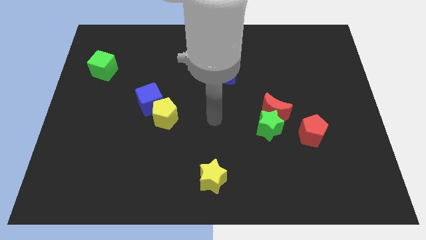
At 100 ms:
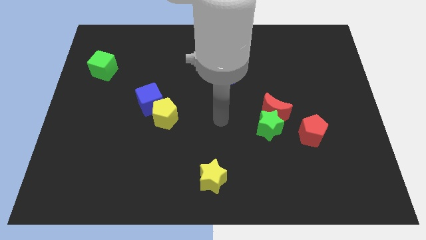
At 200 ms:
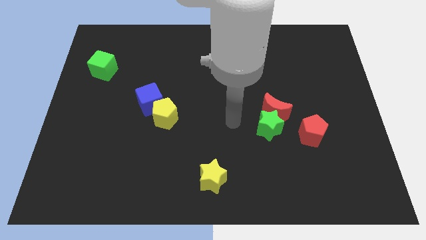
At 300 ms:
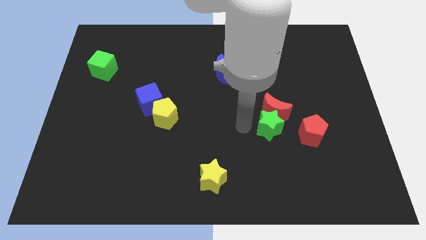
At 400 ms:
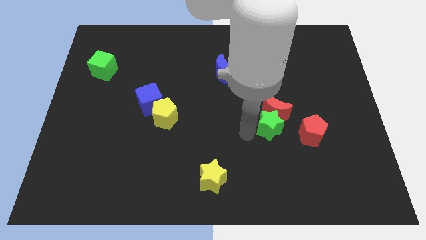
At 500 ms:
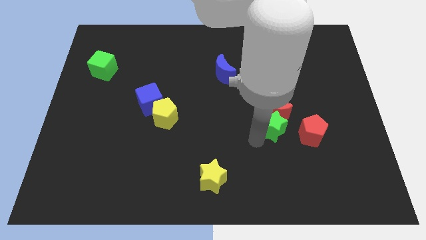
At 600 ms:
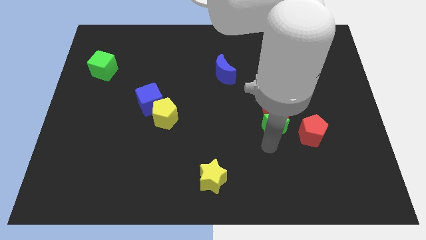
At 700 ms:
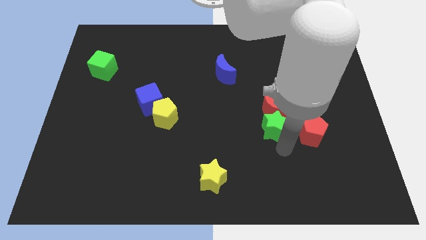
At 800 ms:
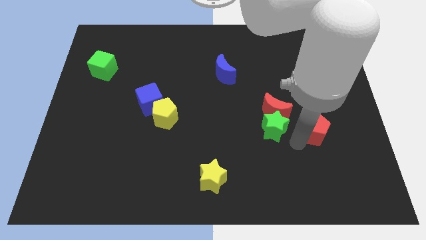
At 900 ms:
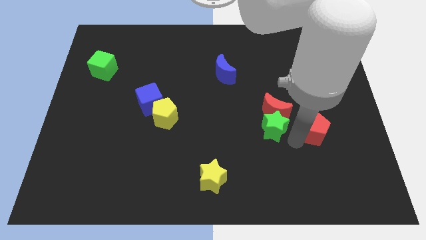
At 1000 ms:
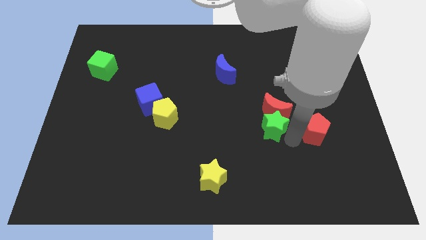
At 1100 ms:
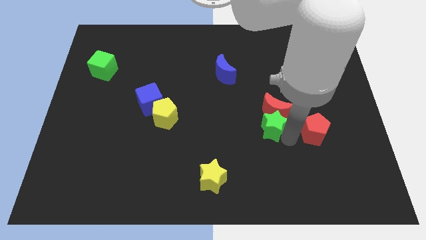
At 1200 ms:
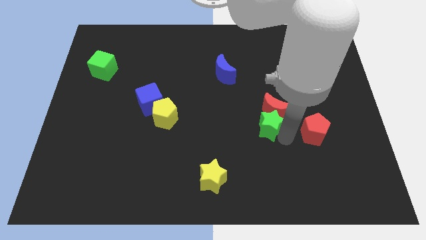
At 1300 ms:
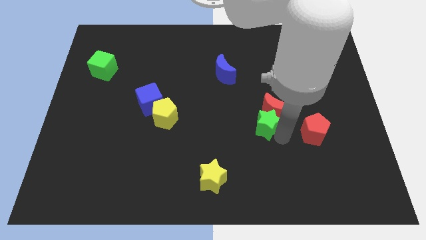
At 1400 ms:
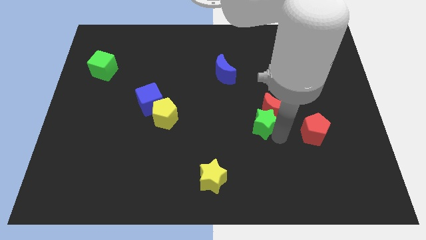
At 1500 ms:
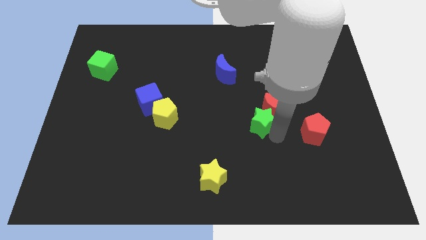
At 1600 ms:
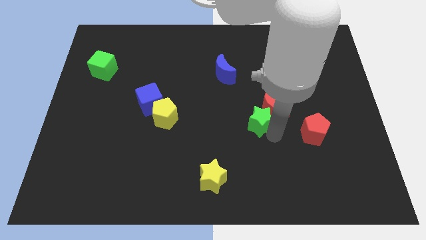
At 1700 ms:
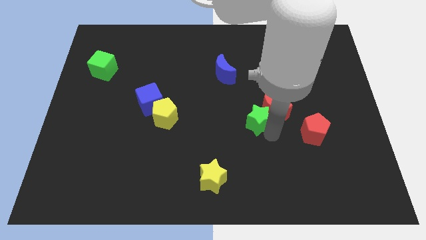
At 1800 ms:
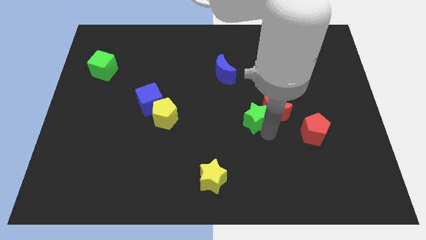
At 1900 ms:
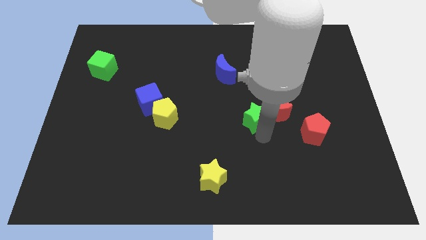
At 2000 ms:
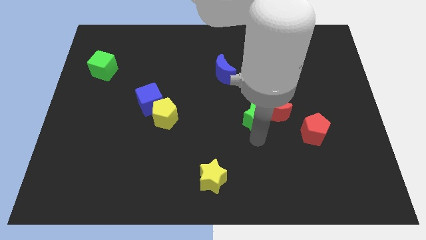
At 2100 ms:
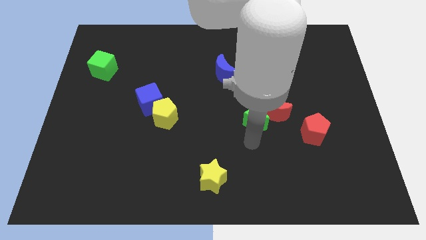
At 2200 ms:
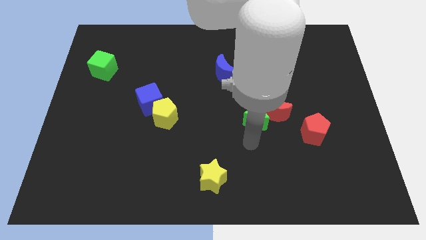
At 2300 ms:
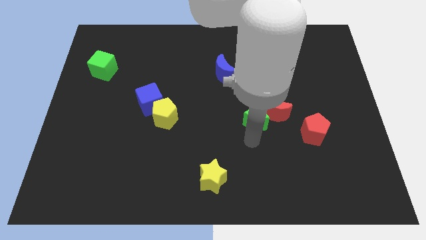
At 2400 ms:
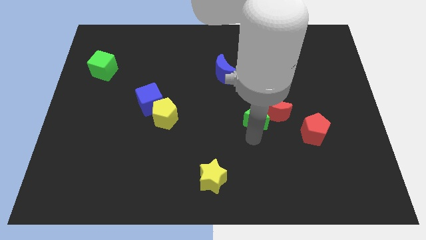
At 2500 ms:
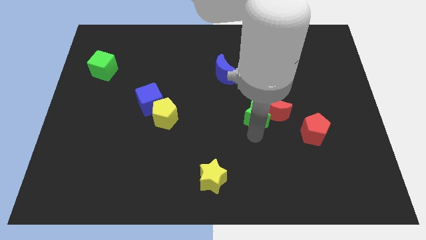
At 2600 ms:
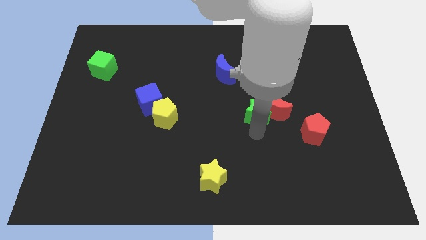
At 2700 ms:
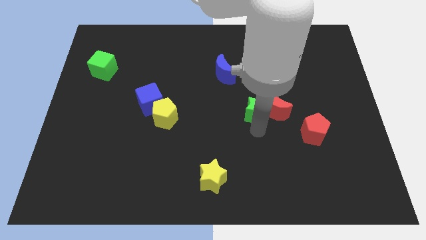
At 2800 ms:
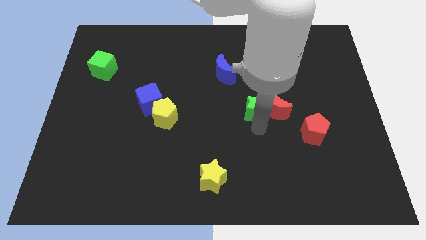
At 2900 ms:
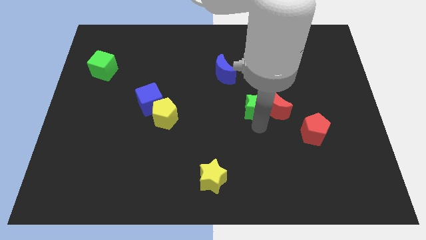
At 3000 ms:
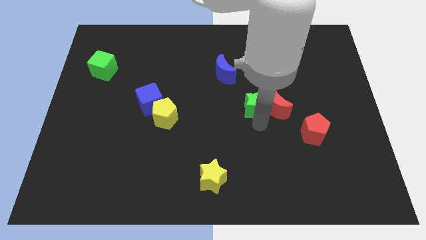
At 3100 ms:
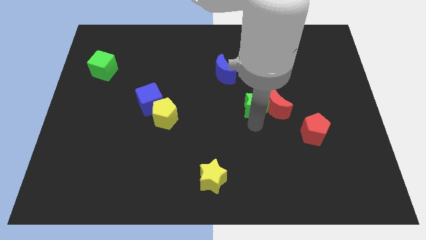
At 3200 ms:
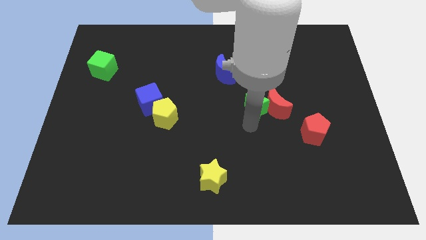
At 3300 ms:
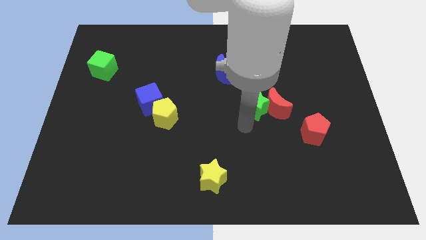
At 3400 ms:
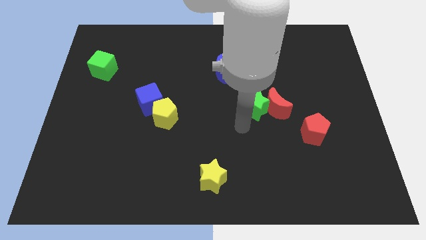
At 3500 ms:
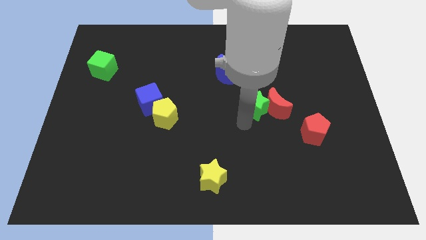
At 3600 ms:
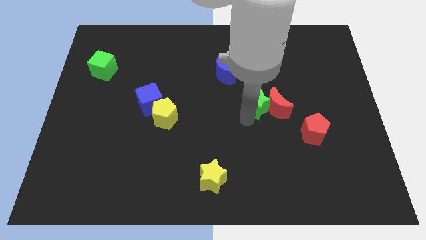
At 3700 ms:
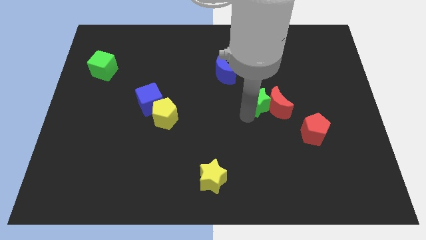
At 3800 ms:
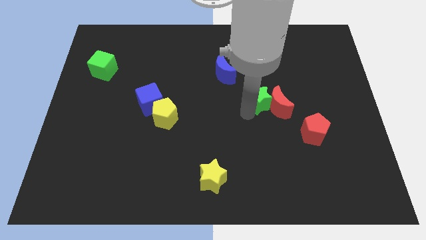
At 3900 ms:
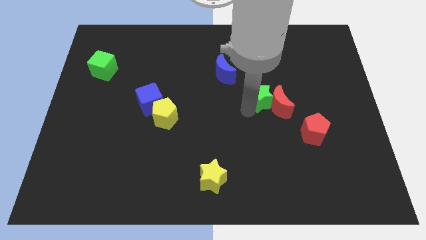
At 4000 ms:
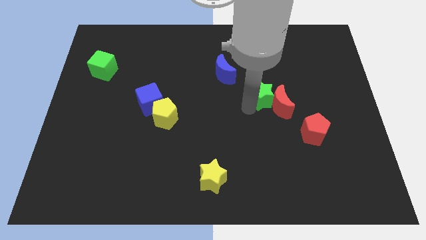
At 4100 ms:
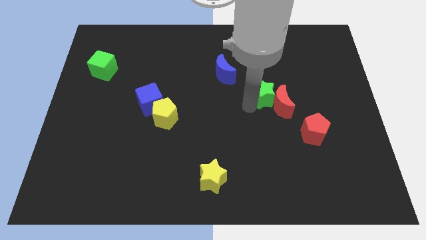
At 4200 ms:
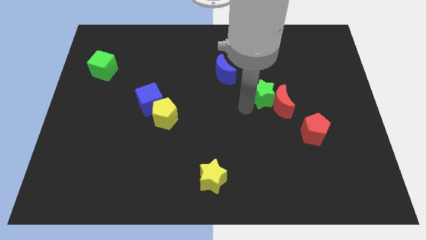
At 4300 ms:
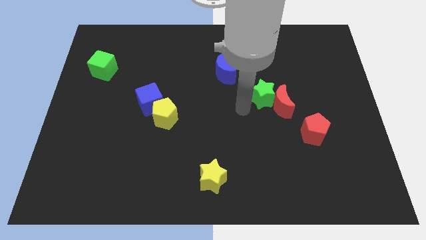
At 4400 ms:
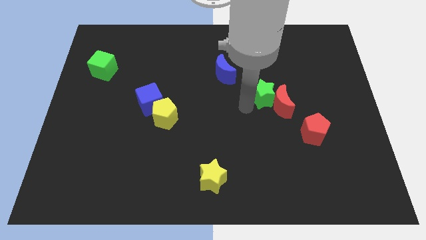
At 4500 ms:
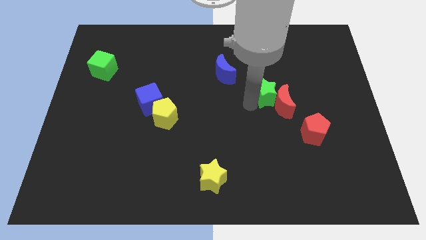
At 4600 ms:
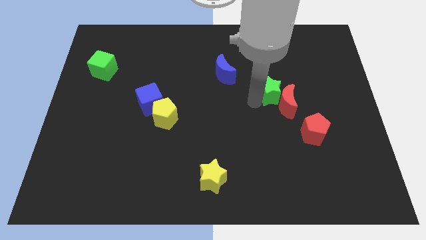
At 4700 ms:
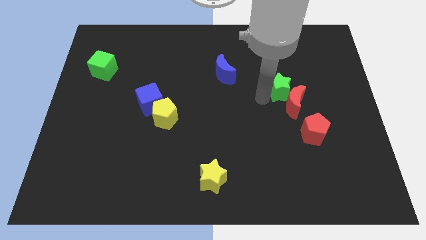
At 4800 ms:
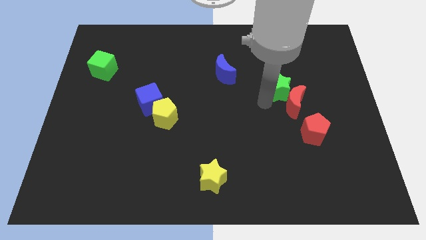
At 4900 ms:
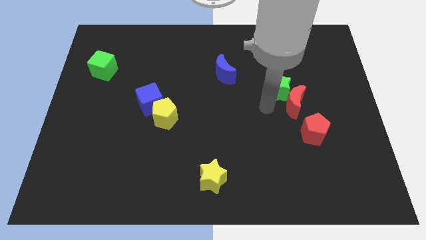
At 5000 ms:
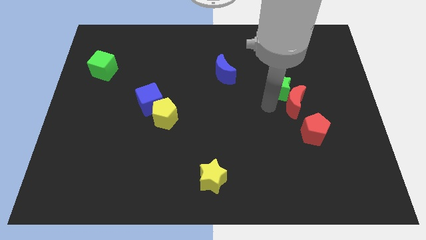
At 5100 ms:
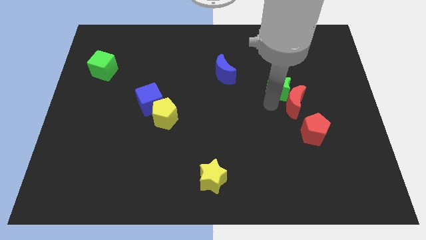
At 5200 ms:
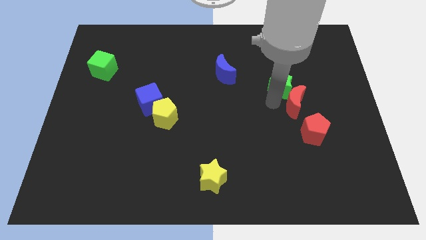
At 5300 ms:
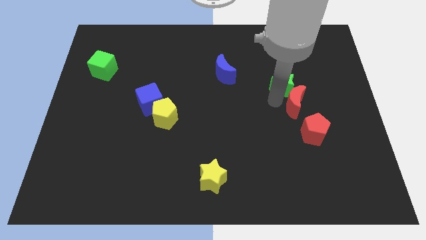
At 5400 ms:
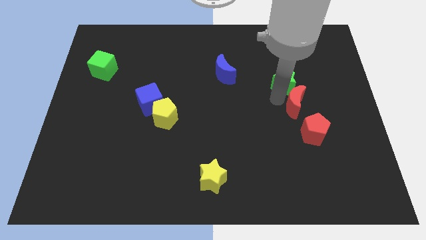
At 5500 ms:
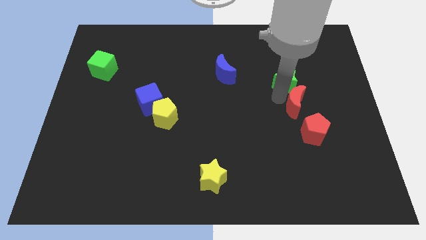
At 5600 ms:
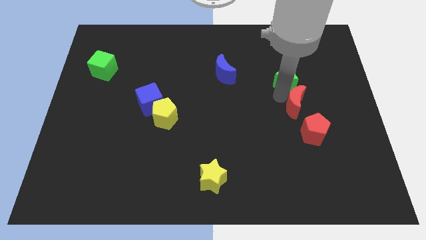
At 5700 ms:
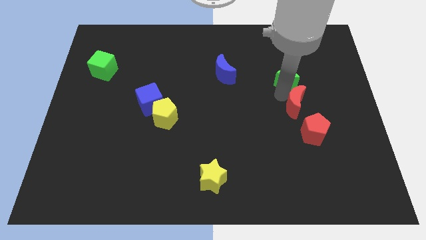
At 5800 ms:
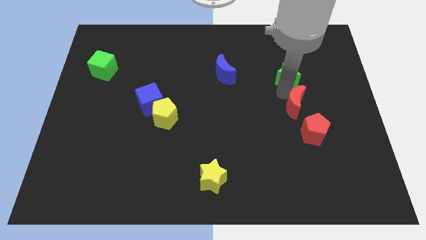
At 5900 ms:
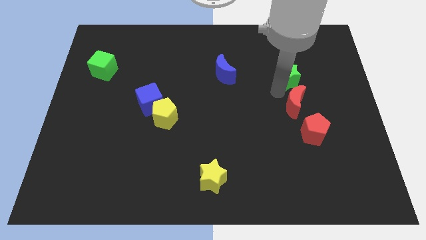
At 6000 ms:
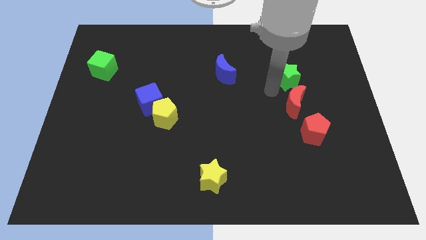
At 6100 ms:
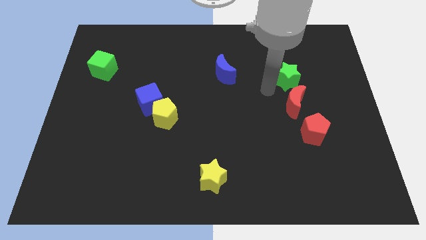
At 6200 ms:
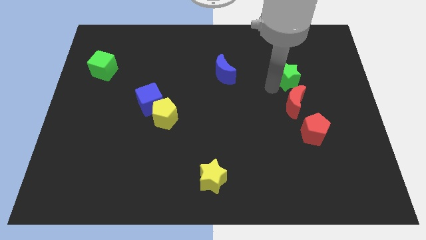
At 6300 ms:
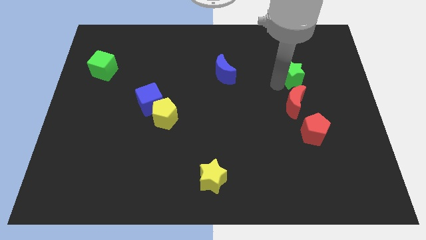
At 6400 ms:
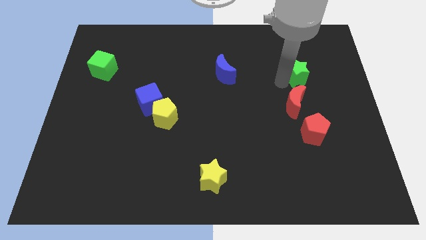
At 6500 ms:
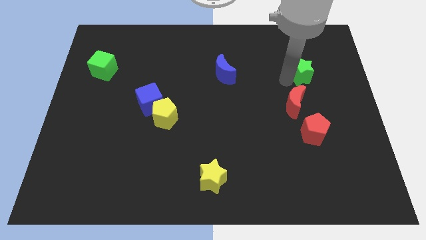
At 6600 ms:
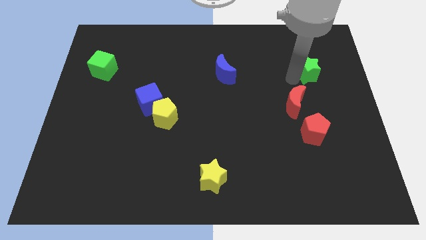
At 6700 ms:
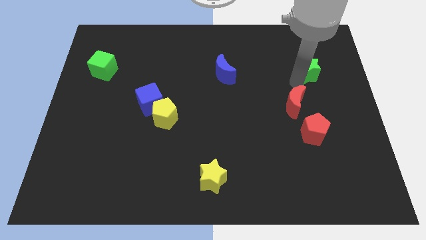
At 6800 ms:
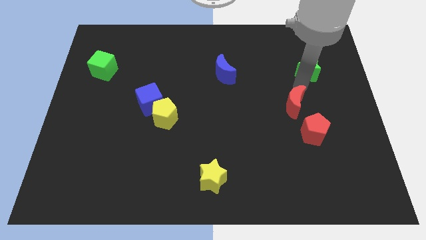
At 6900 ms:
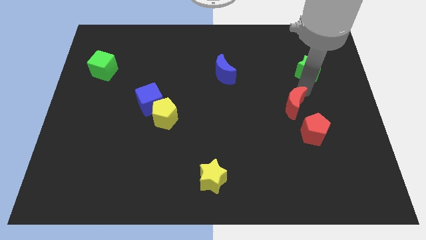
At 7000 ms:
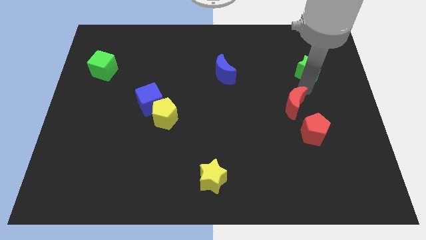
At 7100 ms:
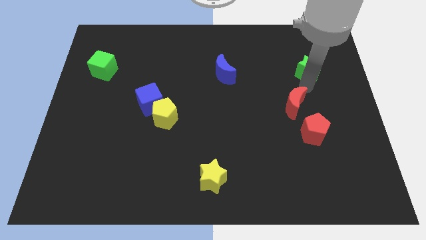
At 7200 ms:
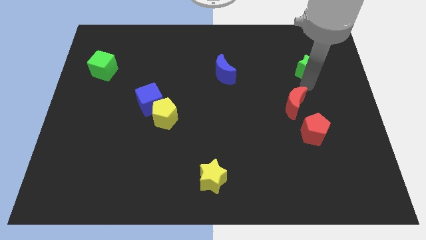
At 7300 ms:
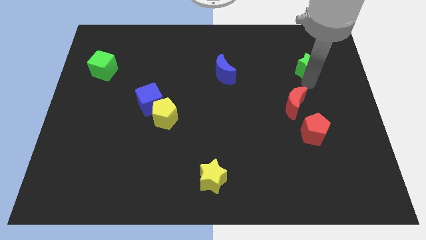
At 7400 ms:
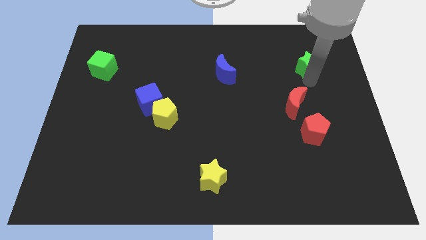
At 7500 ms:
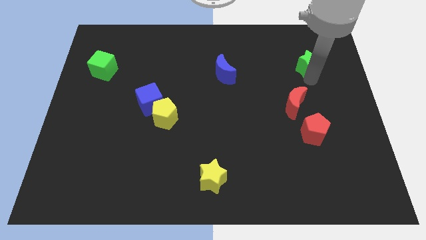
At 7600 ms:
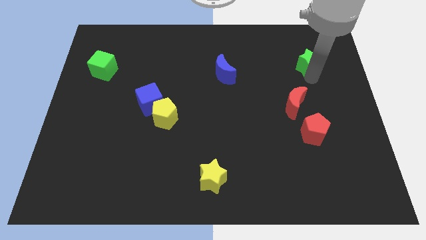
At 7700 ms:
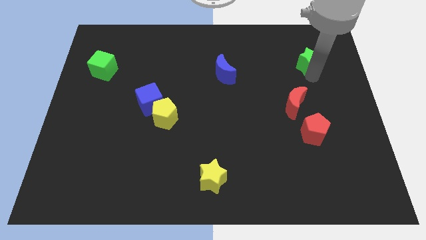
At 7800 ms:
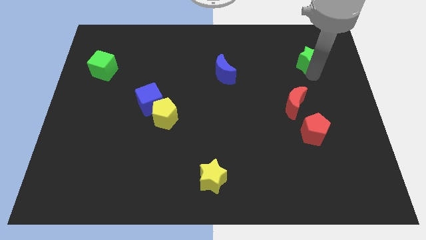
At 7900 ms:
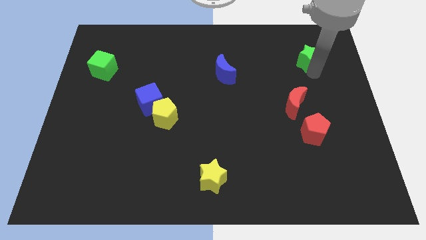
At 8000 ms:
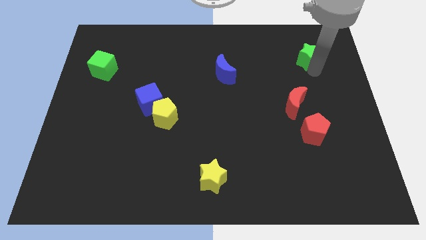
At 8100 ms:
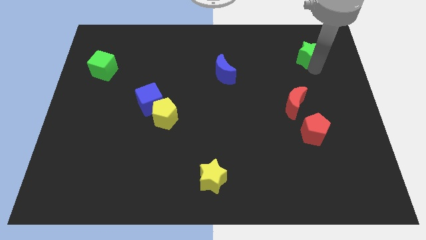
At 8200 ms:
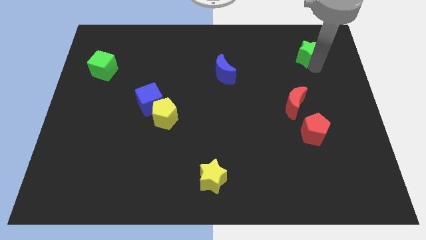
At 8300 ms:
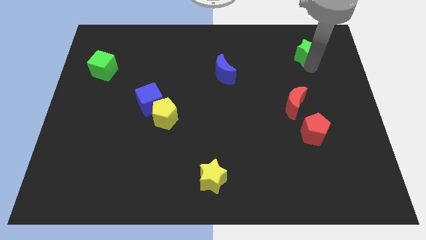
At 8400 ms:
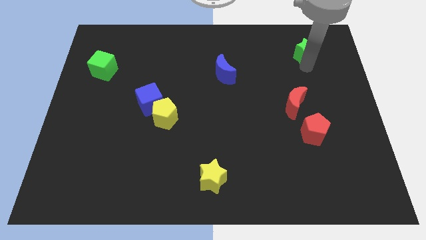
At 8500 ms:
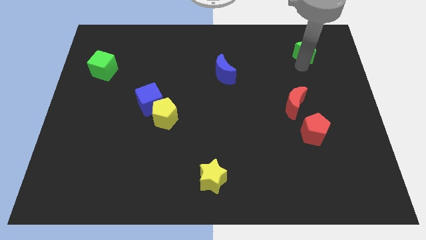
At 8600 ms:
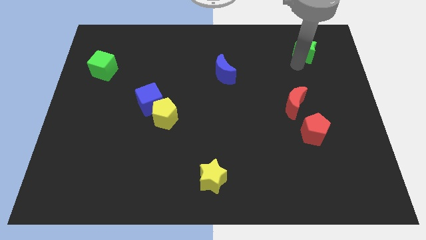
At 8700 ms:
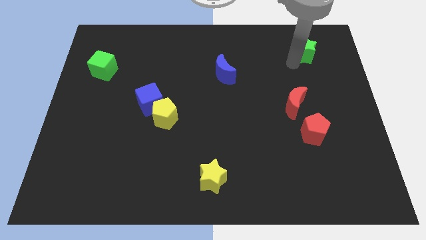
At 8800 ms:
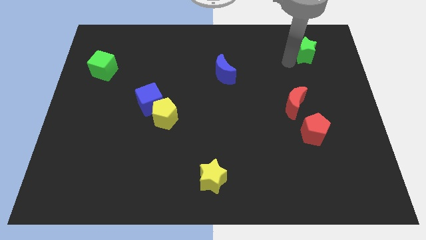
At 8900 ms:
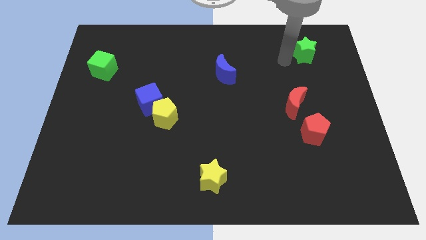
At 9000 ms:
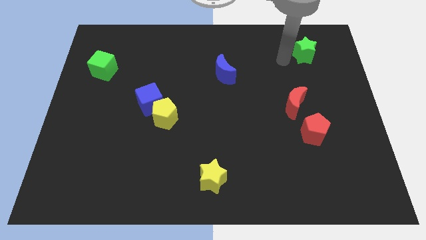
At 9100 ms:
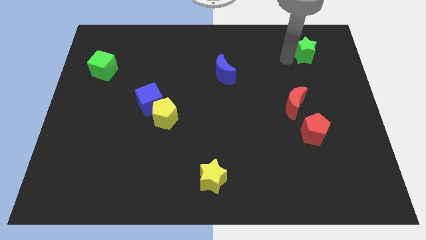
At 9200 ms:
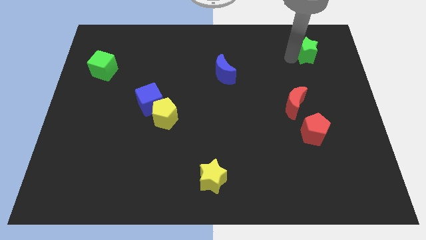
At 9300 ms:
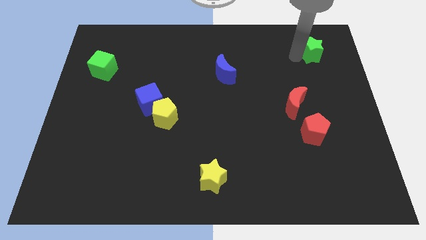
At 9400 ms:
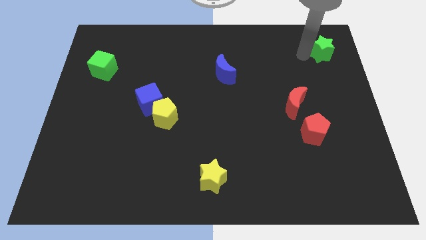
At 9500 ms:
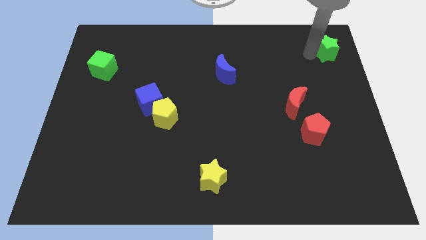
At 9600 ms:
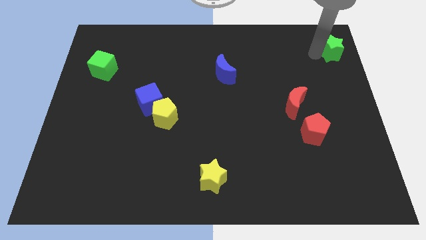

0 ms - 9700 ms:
put the green star to the top right of the board
